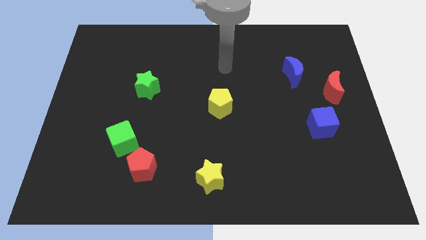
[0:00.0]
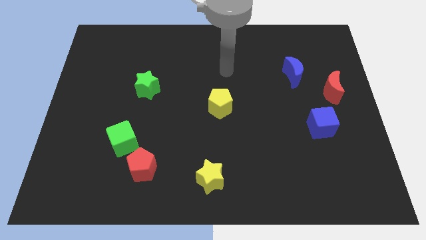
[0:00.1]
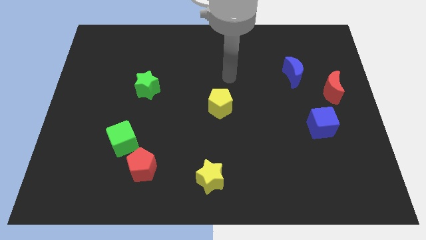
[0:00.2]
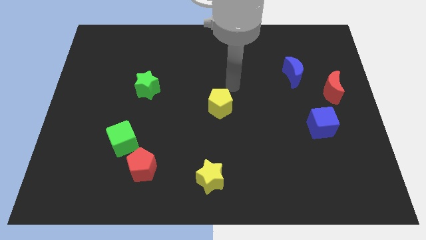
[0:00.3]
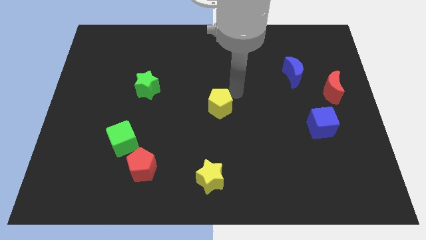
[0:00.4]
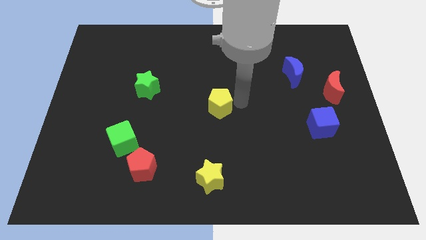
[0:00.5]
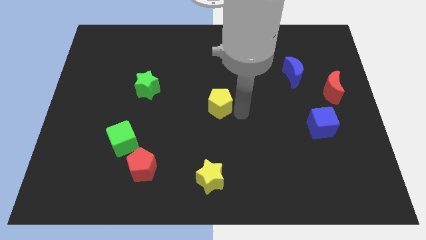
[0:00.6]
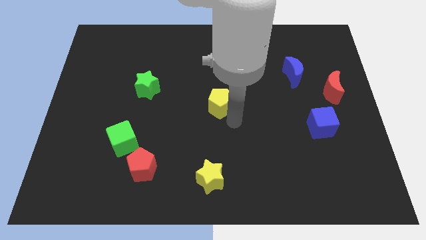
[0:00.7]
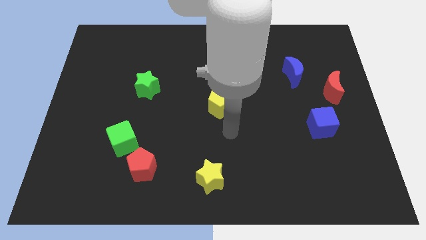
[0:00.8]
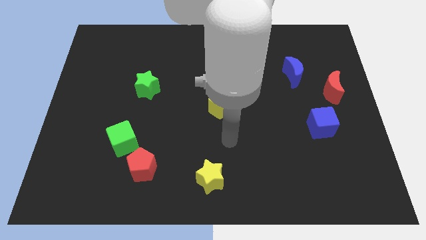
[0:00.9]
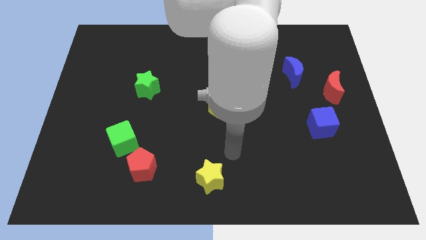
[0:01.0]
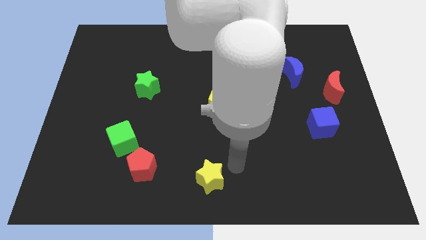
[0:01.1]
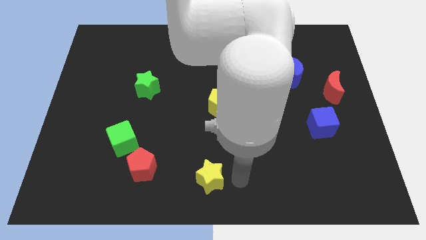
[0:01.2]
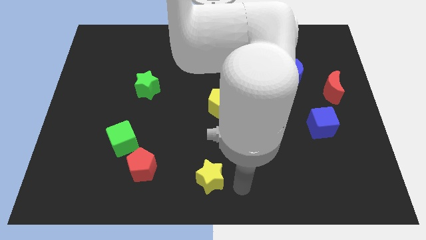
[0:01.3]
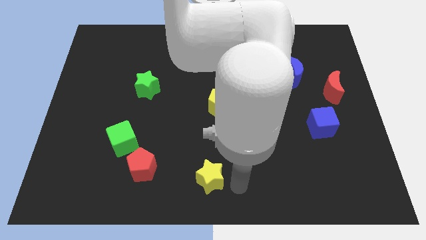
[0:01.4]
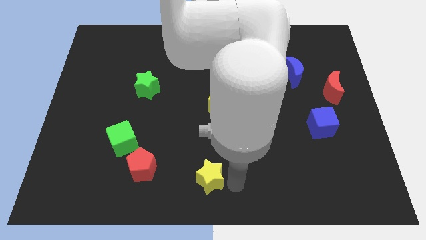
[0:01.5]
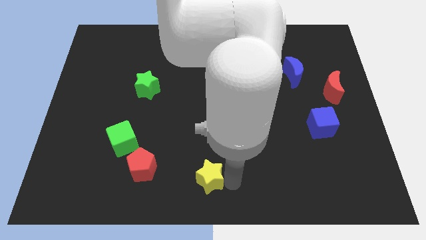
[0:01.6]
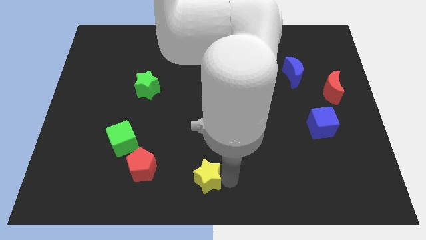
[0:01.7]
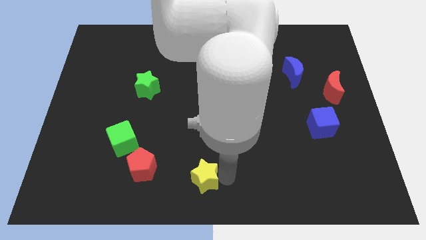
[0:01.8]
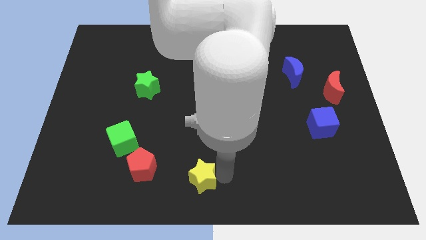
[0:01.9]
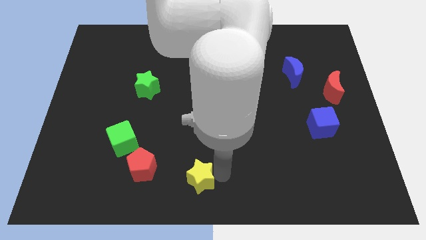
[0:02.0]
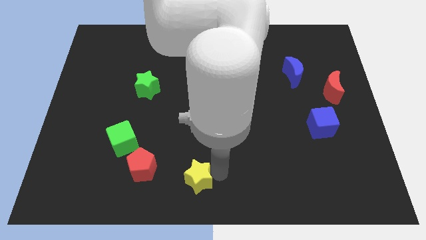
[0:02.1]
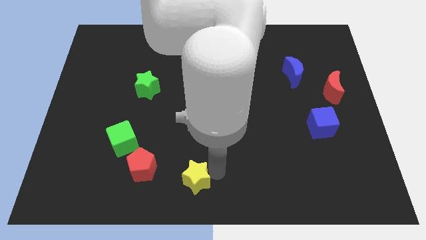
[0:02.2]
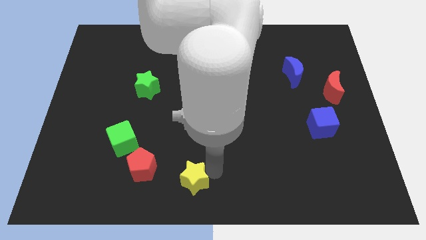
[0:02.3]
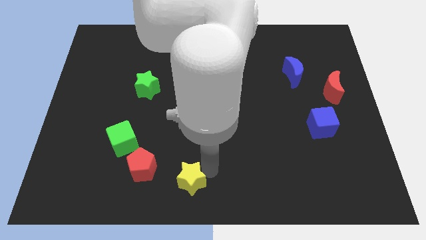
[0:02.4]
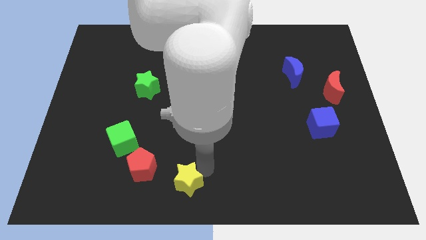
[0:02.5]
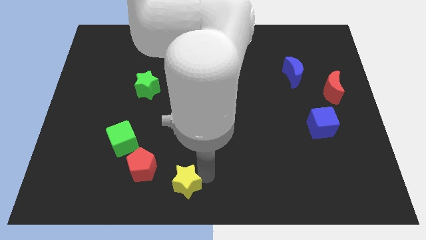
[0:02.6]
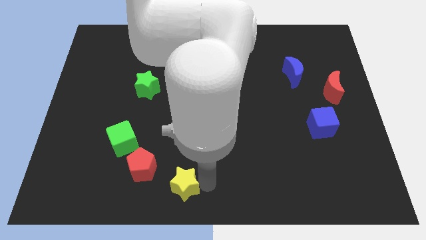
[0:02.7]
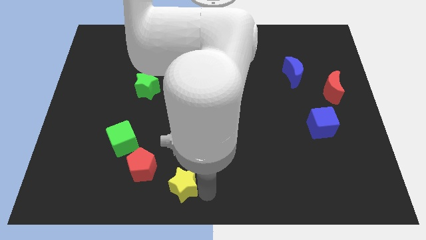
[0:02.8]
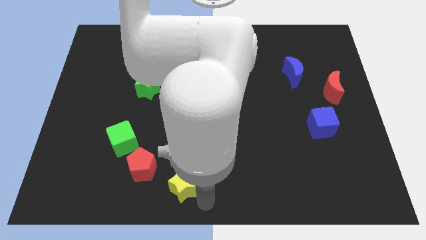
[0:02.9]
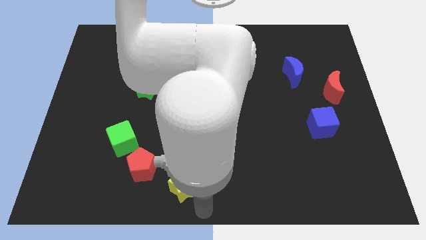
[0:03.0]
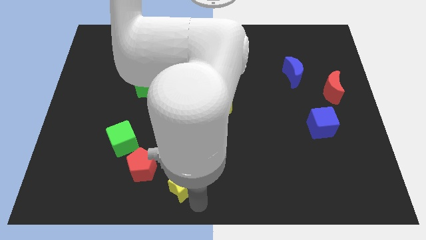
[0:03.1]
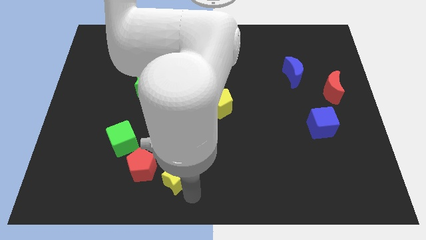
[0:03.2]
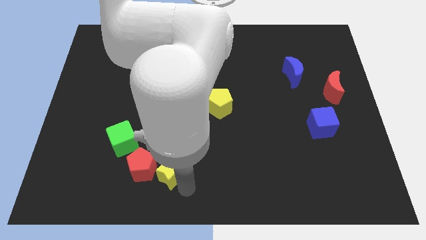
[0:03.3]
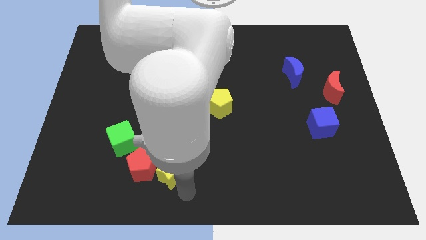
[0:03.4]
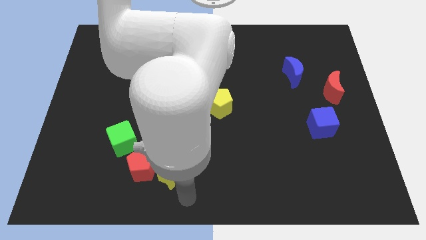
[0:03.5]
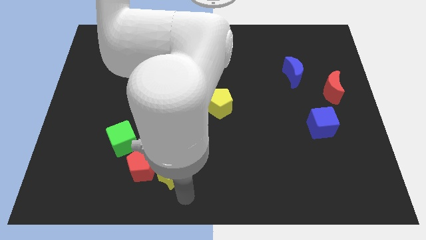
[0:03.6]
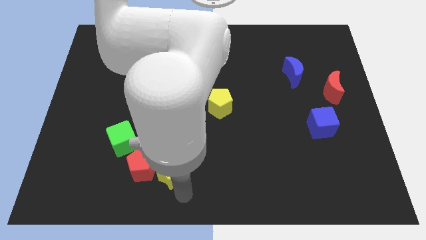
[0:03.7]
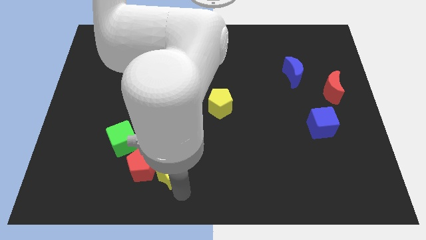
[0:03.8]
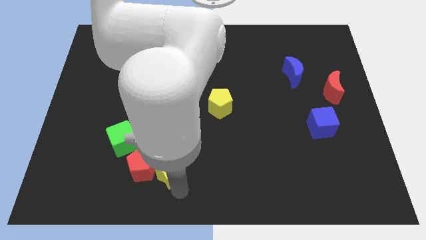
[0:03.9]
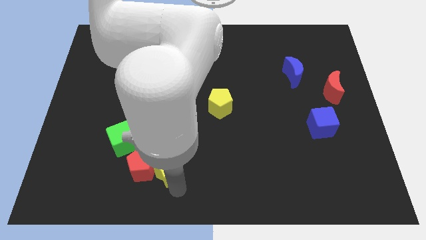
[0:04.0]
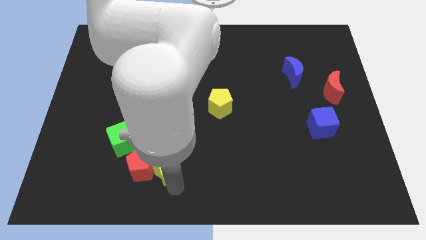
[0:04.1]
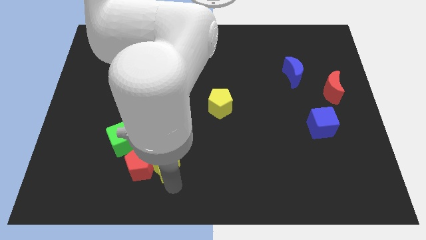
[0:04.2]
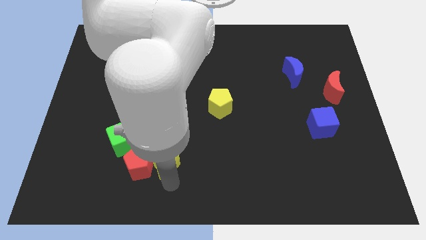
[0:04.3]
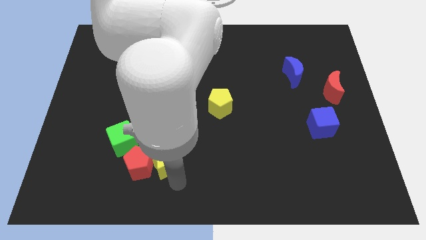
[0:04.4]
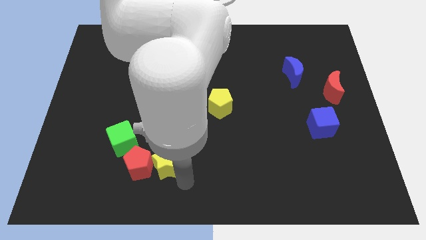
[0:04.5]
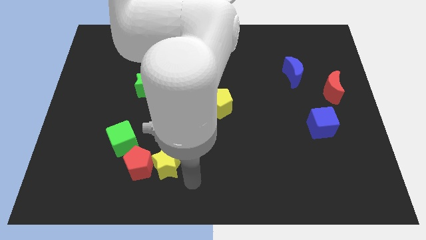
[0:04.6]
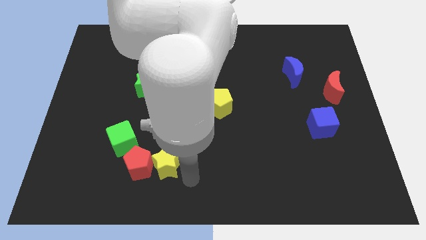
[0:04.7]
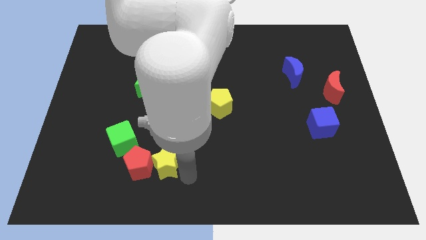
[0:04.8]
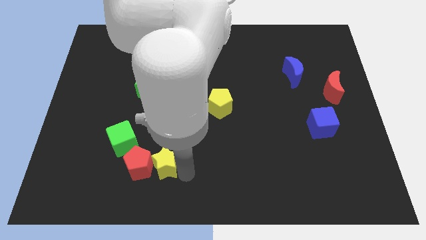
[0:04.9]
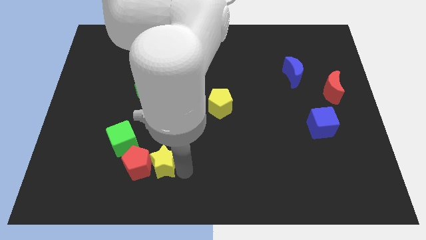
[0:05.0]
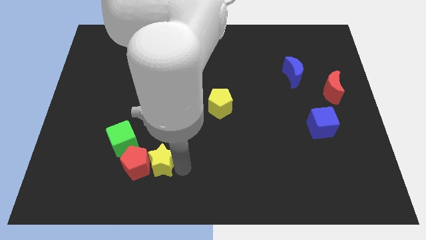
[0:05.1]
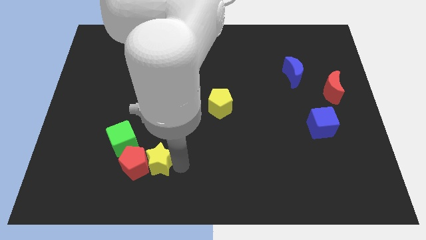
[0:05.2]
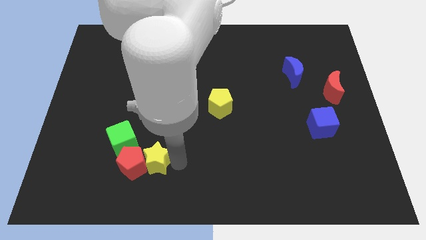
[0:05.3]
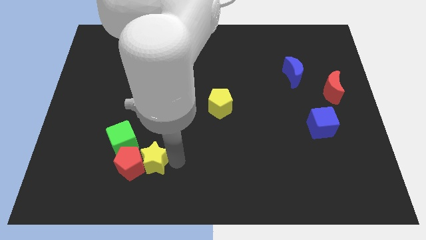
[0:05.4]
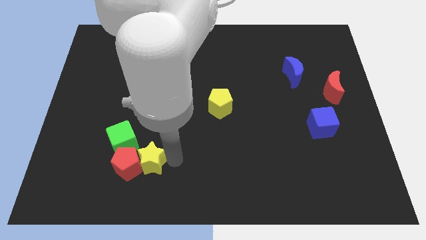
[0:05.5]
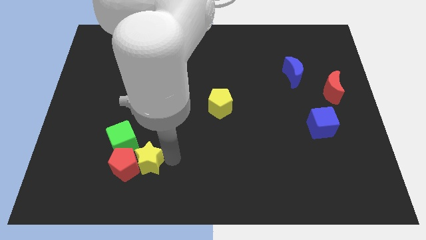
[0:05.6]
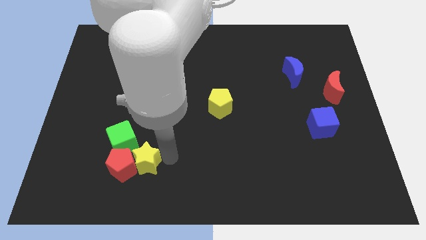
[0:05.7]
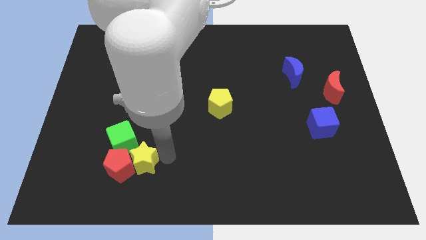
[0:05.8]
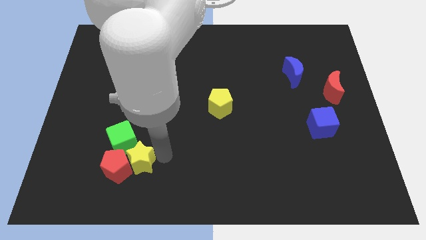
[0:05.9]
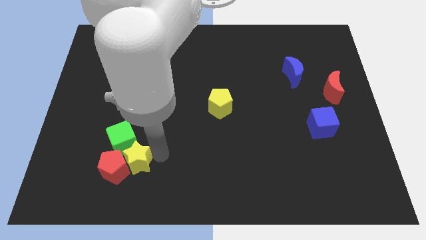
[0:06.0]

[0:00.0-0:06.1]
push the yellow star towards the green cube

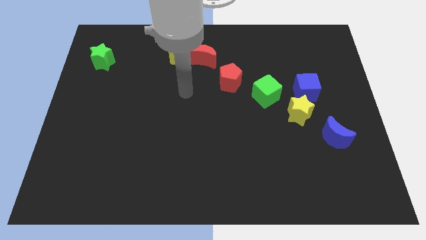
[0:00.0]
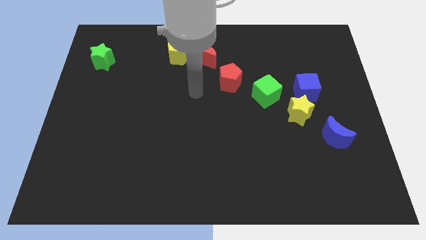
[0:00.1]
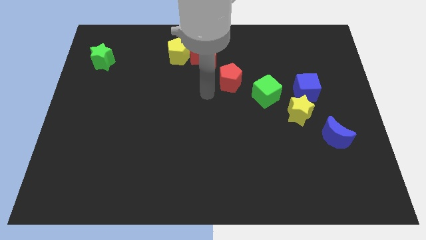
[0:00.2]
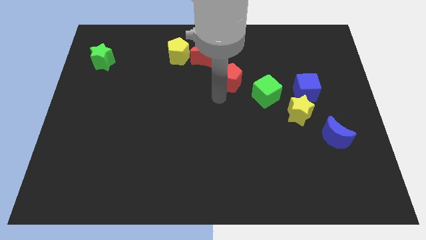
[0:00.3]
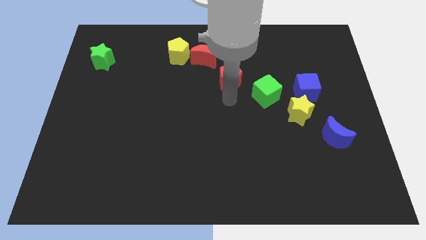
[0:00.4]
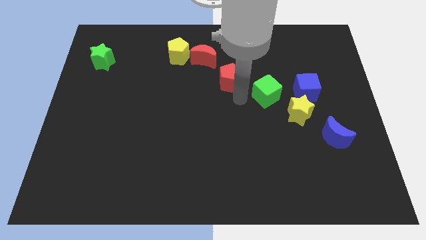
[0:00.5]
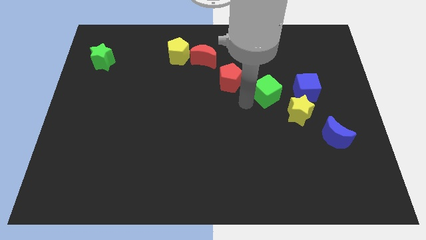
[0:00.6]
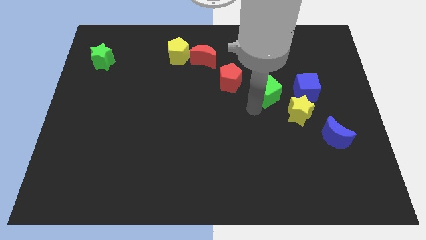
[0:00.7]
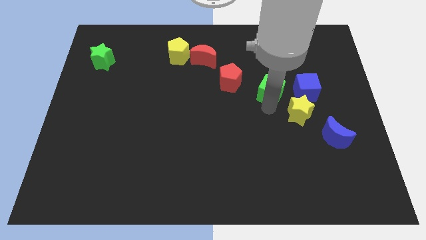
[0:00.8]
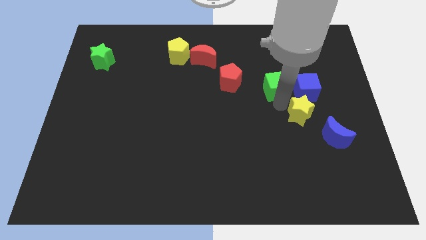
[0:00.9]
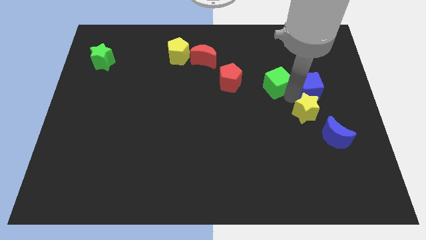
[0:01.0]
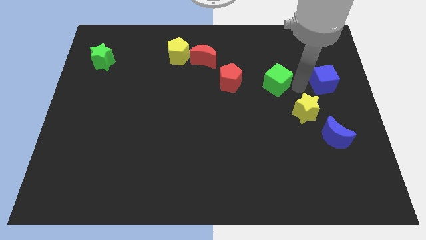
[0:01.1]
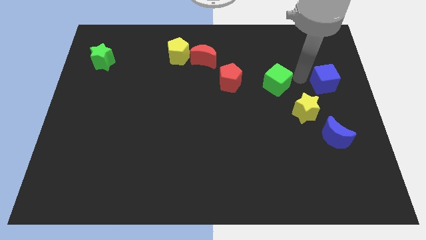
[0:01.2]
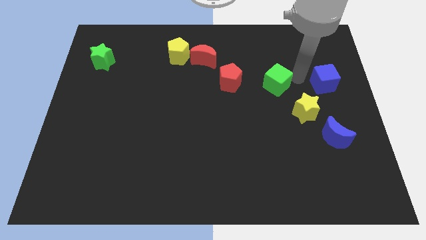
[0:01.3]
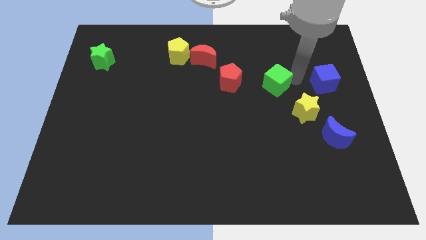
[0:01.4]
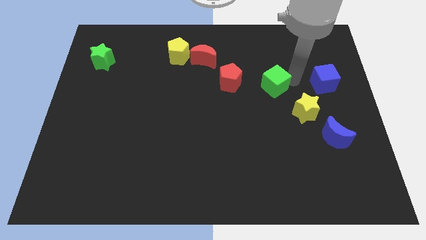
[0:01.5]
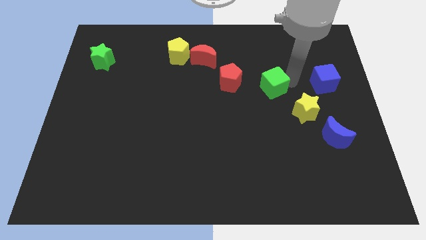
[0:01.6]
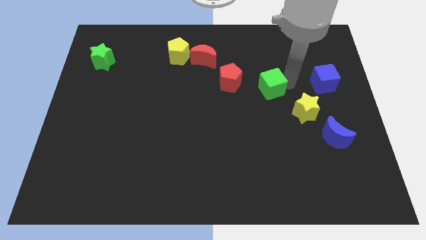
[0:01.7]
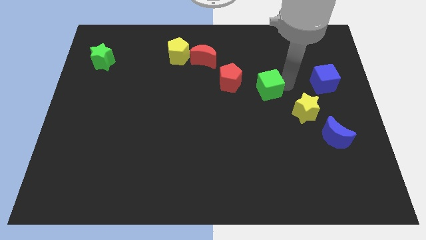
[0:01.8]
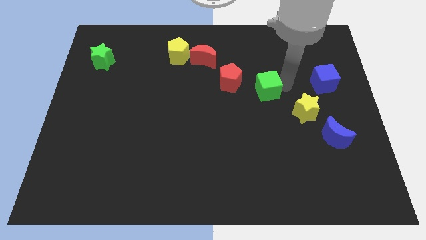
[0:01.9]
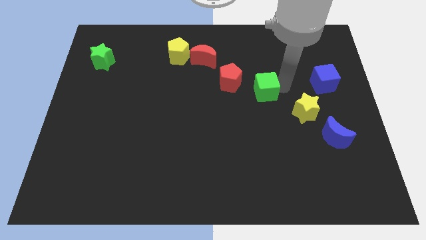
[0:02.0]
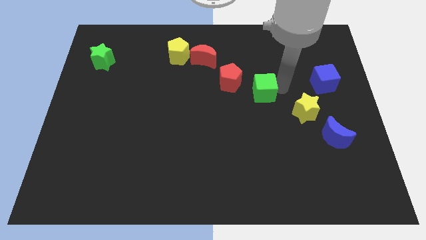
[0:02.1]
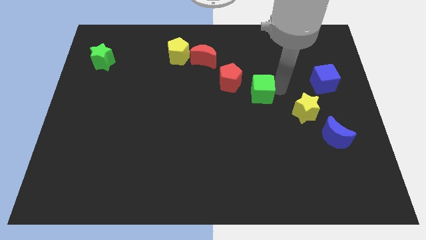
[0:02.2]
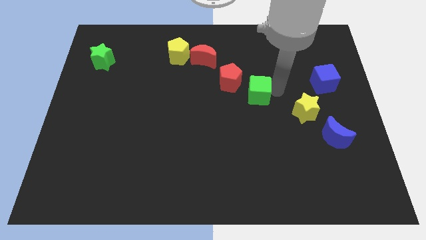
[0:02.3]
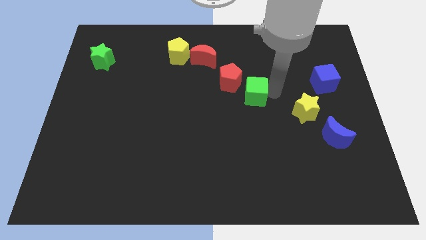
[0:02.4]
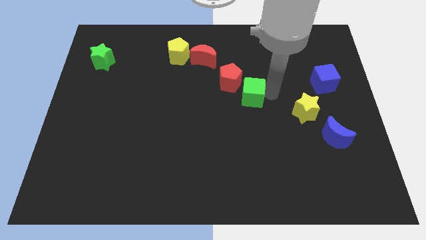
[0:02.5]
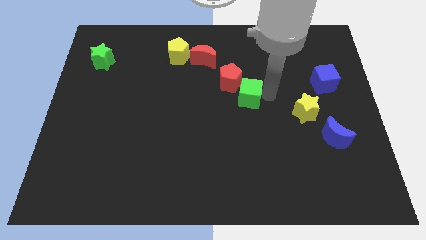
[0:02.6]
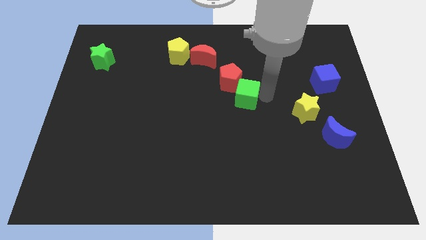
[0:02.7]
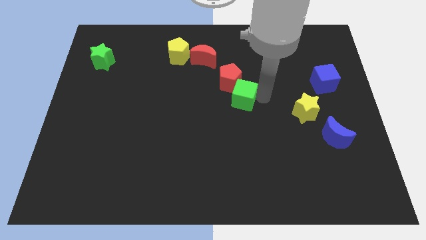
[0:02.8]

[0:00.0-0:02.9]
put the green cube next to the red pentagon
